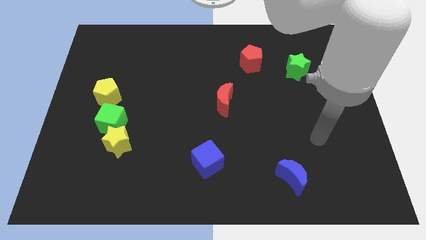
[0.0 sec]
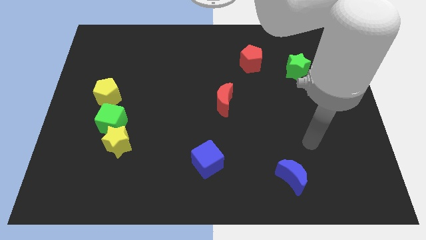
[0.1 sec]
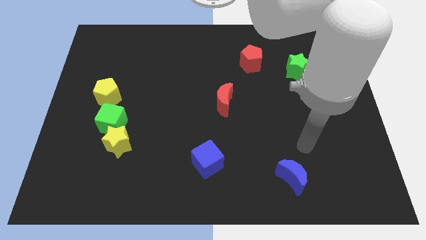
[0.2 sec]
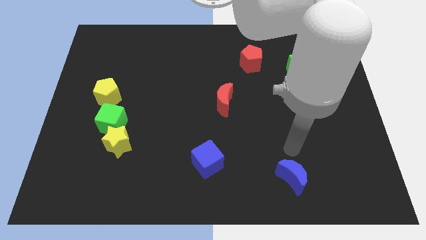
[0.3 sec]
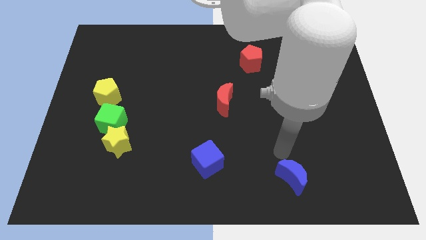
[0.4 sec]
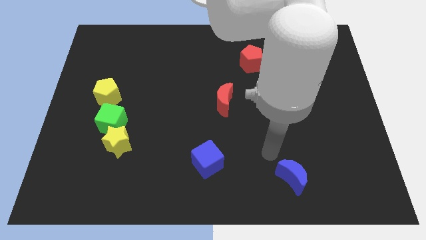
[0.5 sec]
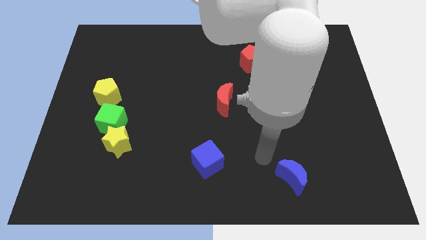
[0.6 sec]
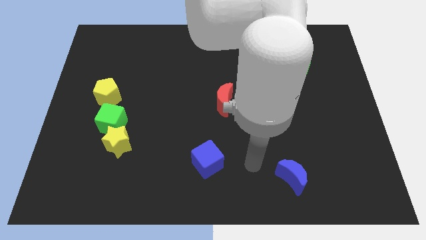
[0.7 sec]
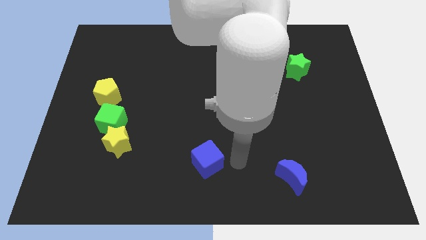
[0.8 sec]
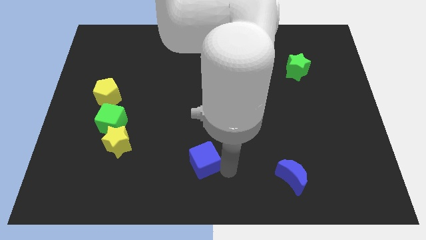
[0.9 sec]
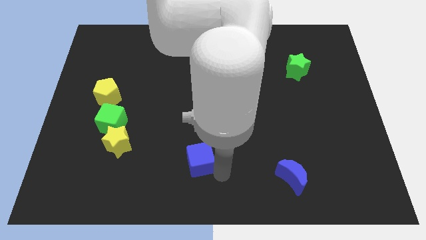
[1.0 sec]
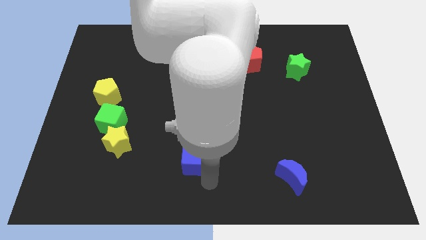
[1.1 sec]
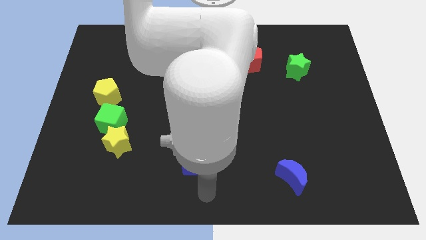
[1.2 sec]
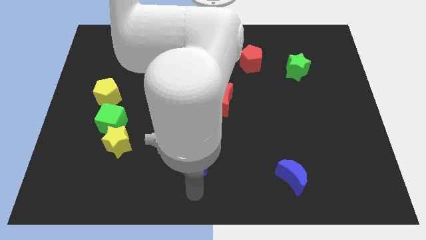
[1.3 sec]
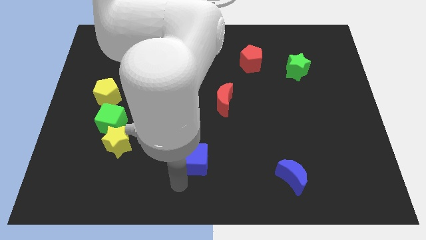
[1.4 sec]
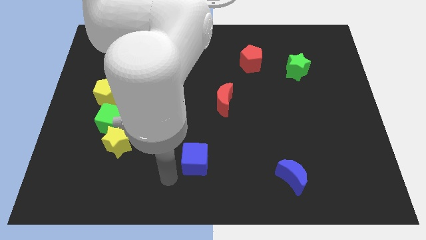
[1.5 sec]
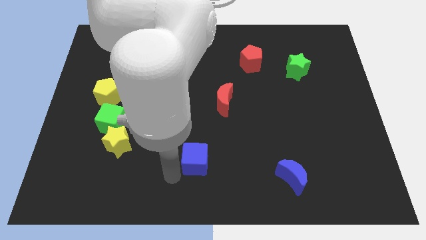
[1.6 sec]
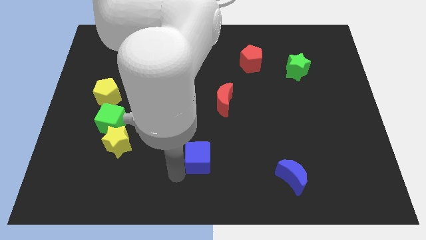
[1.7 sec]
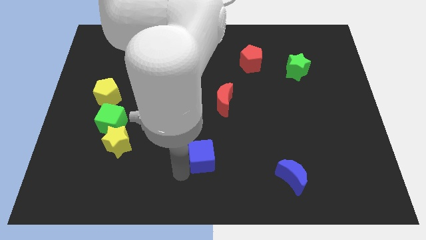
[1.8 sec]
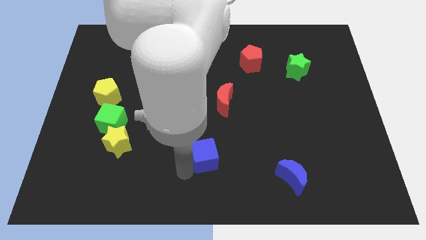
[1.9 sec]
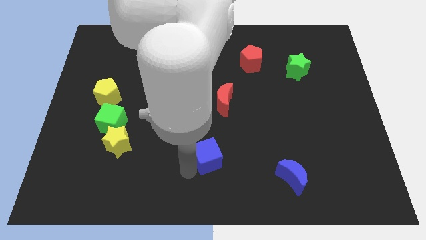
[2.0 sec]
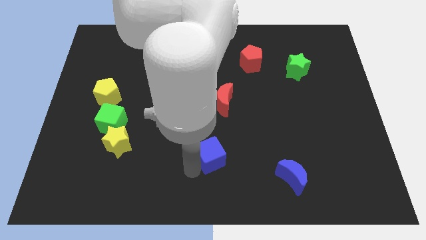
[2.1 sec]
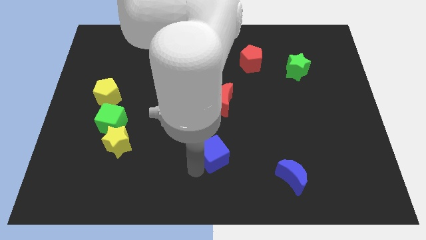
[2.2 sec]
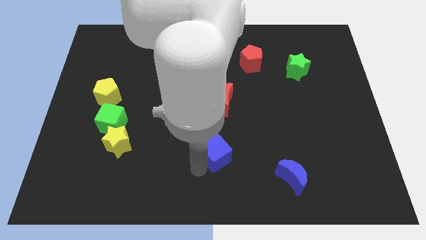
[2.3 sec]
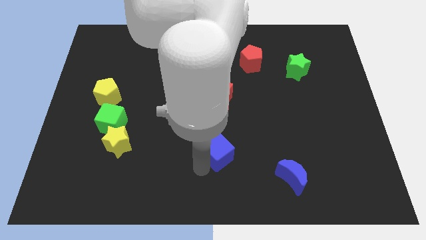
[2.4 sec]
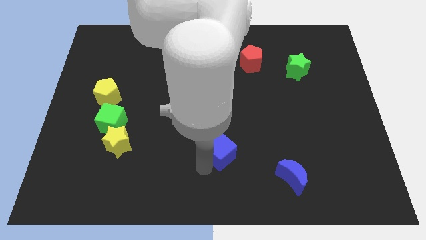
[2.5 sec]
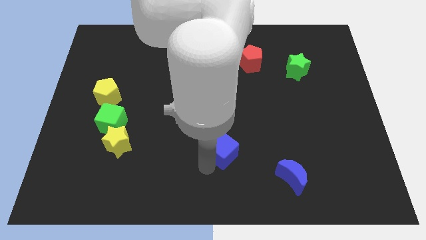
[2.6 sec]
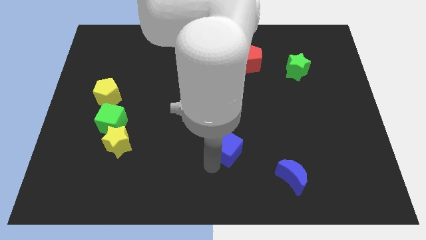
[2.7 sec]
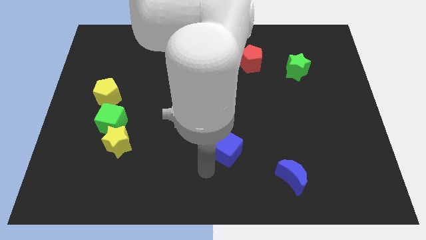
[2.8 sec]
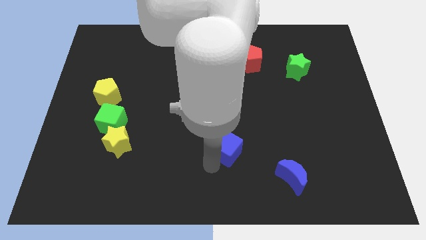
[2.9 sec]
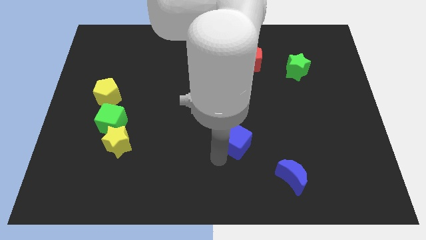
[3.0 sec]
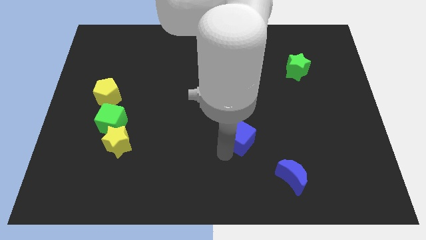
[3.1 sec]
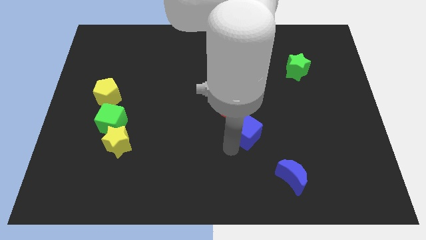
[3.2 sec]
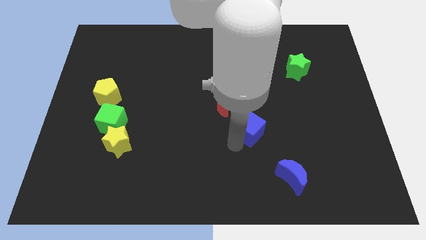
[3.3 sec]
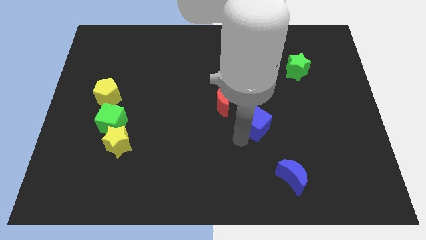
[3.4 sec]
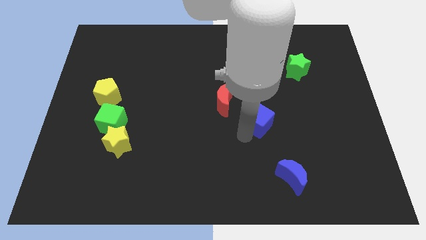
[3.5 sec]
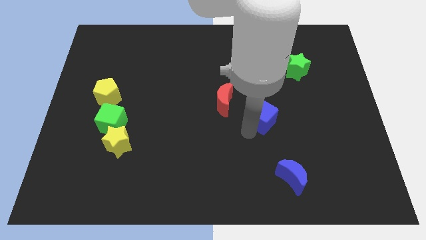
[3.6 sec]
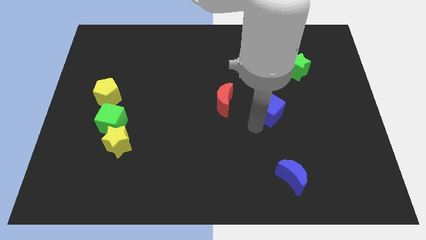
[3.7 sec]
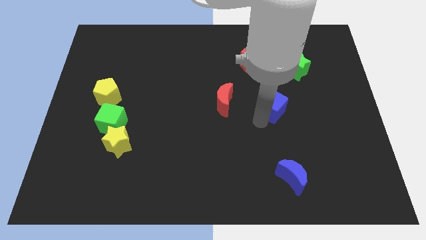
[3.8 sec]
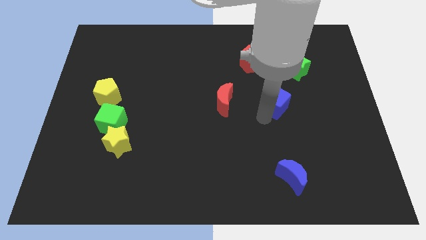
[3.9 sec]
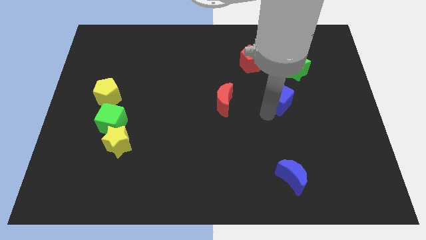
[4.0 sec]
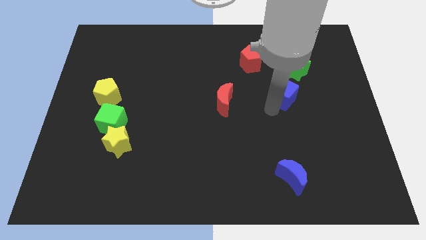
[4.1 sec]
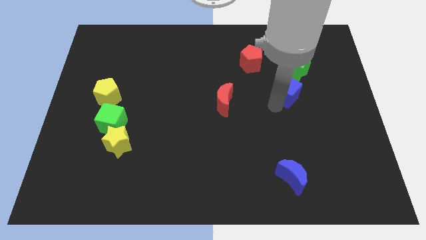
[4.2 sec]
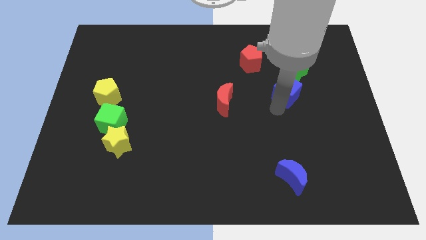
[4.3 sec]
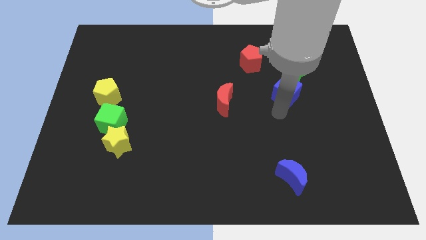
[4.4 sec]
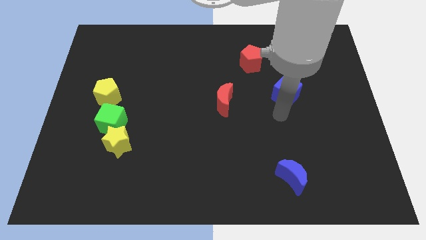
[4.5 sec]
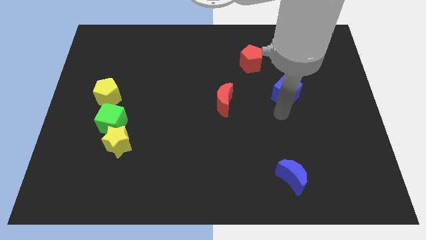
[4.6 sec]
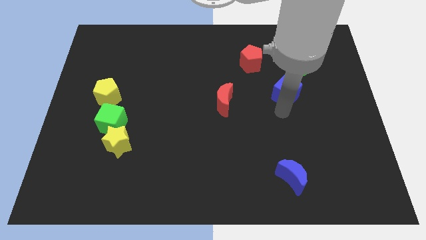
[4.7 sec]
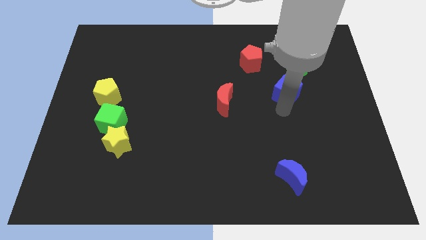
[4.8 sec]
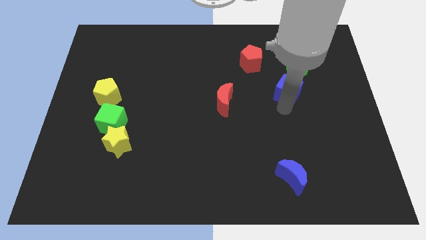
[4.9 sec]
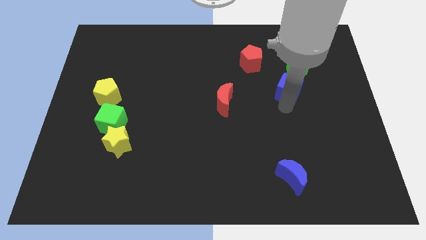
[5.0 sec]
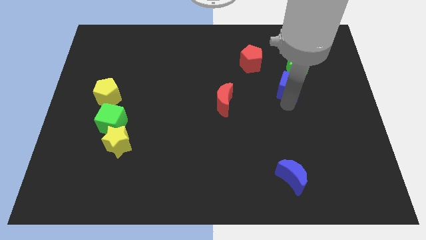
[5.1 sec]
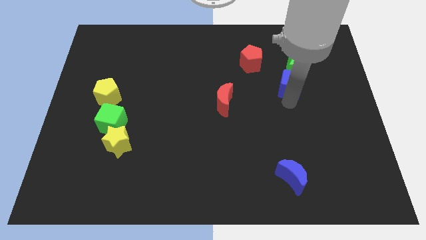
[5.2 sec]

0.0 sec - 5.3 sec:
put the blue cube next to the green star

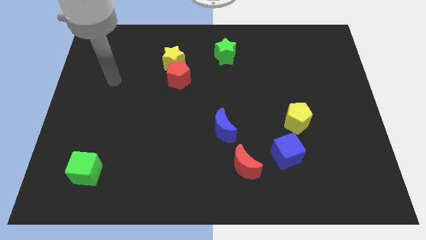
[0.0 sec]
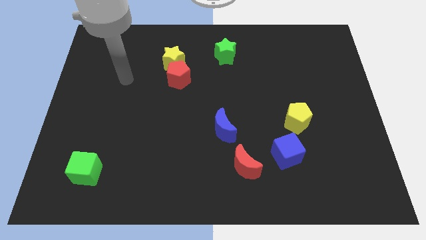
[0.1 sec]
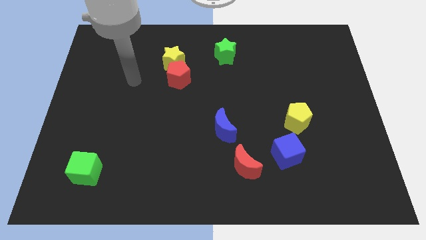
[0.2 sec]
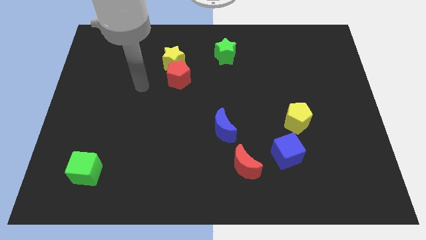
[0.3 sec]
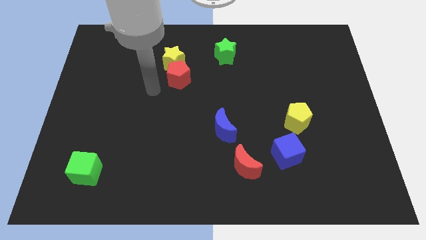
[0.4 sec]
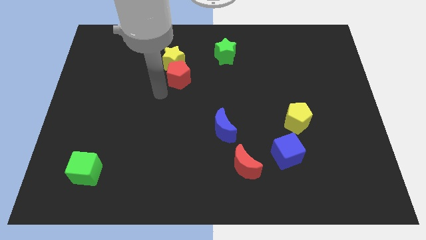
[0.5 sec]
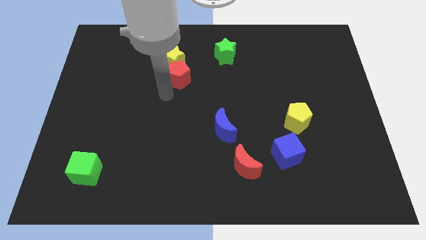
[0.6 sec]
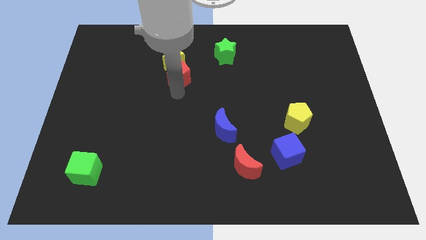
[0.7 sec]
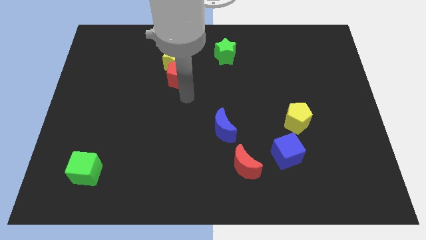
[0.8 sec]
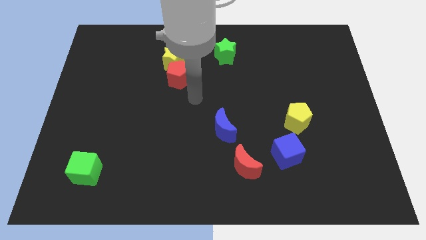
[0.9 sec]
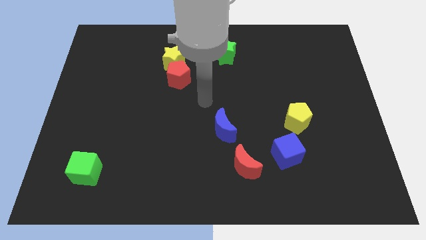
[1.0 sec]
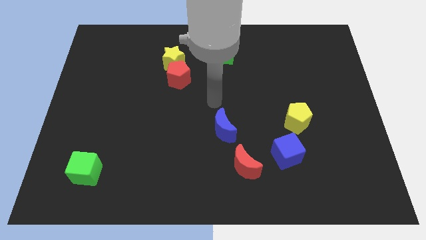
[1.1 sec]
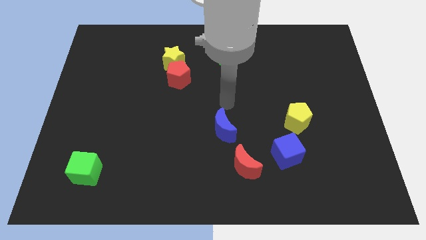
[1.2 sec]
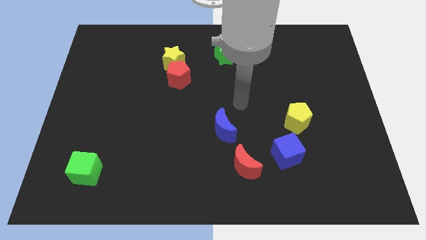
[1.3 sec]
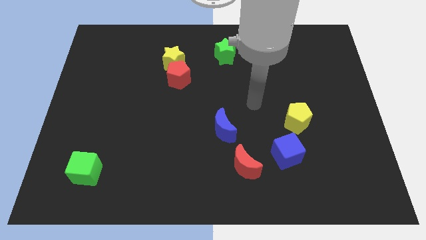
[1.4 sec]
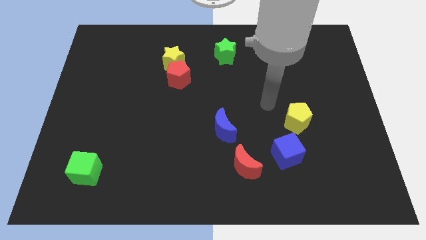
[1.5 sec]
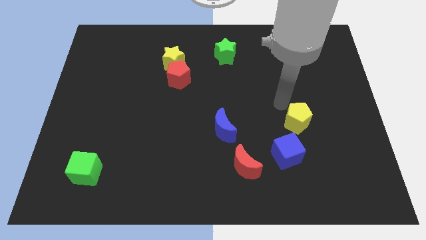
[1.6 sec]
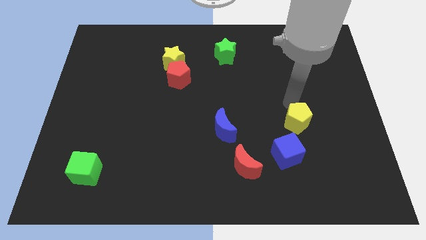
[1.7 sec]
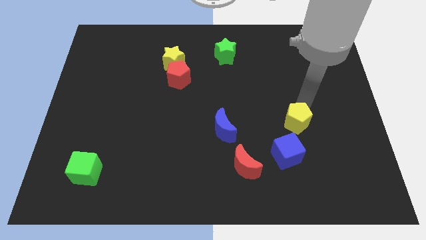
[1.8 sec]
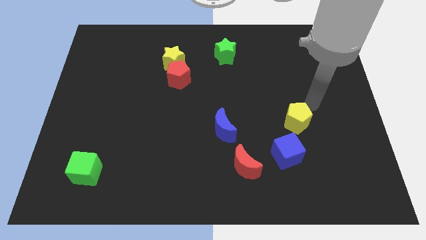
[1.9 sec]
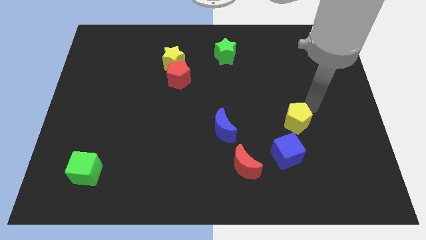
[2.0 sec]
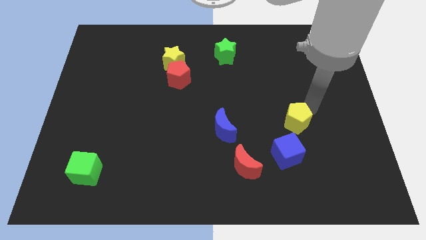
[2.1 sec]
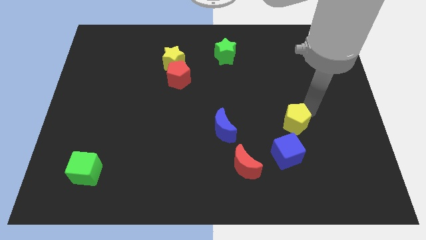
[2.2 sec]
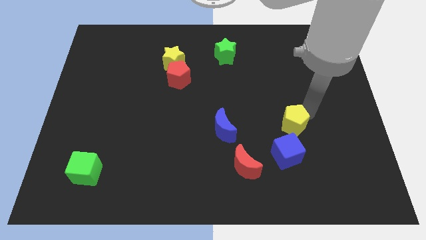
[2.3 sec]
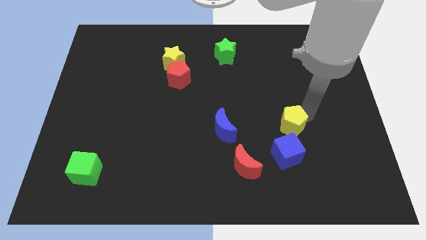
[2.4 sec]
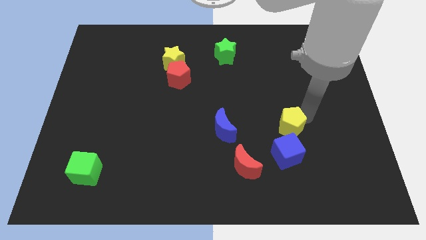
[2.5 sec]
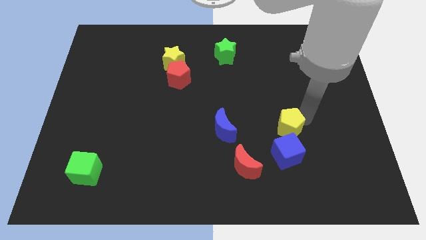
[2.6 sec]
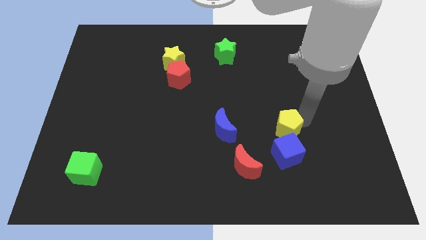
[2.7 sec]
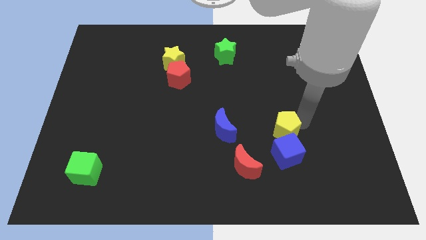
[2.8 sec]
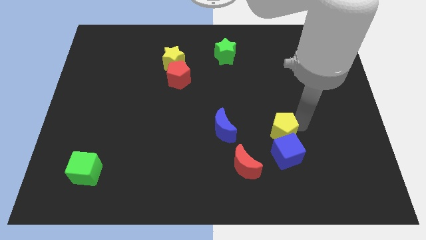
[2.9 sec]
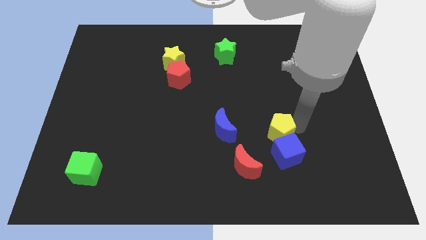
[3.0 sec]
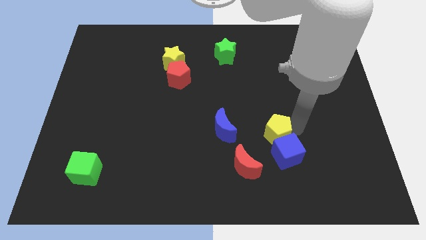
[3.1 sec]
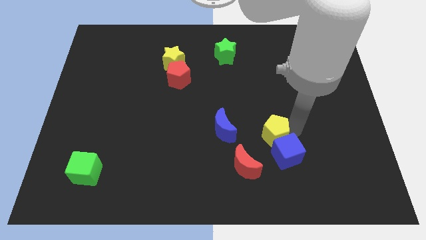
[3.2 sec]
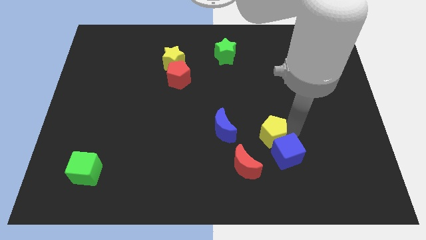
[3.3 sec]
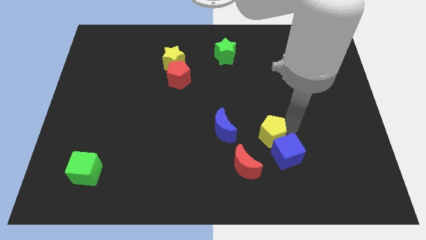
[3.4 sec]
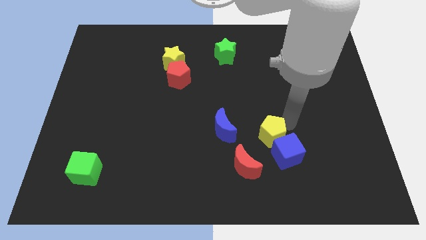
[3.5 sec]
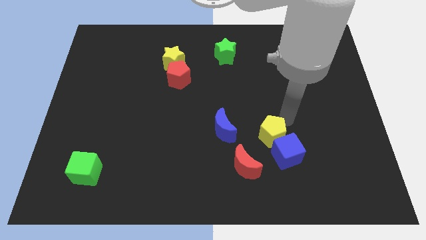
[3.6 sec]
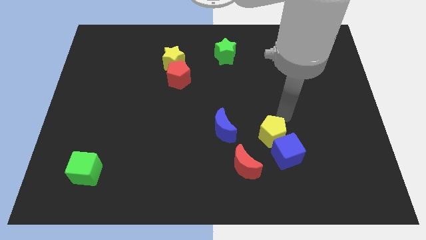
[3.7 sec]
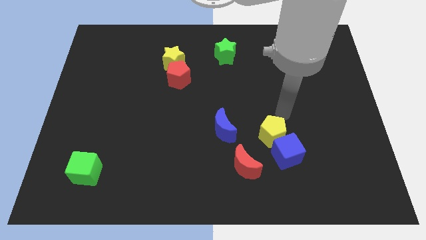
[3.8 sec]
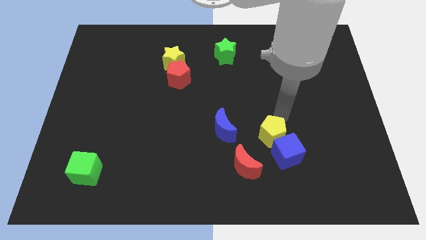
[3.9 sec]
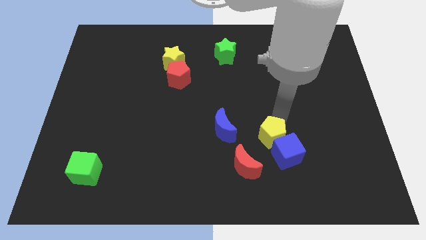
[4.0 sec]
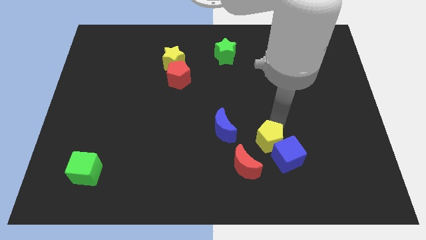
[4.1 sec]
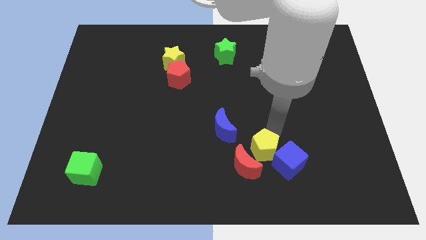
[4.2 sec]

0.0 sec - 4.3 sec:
push the yellow pentagon to the red moon
